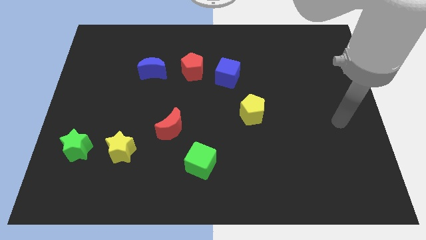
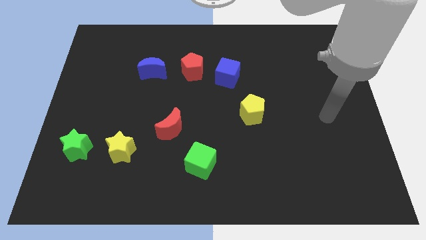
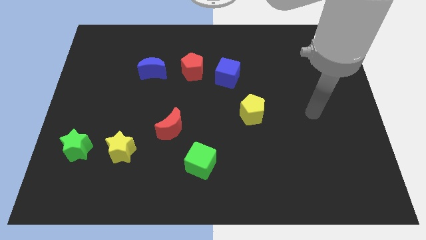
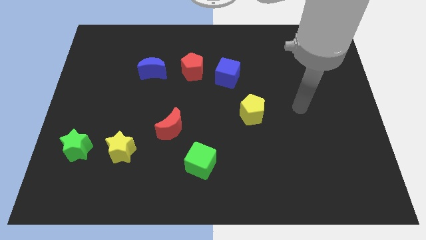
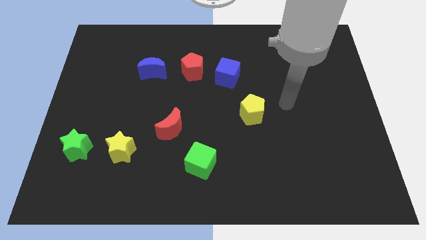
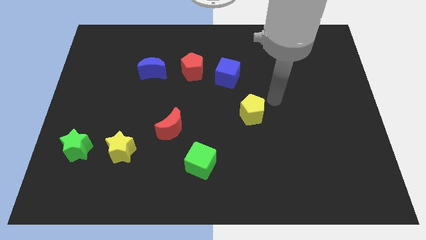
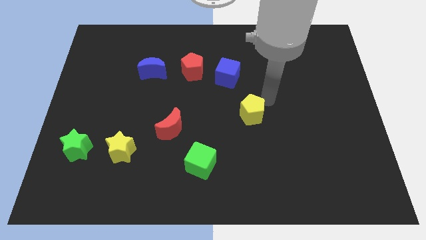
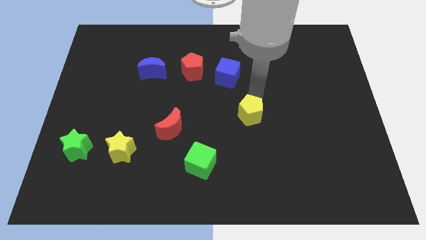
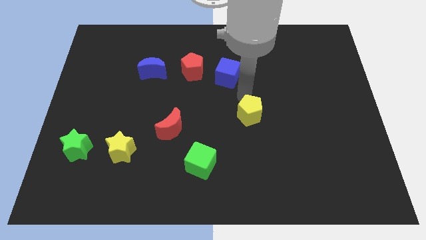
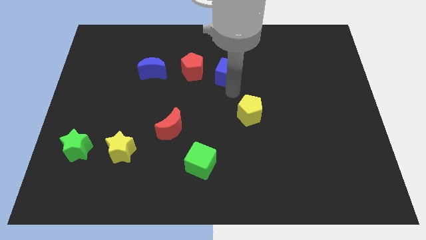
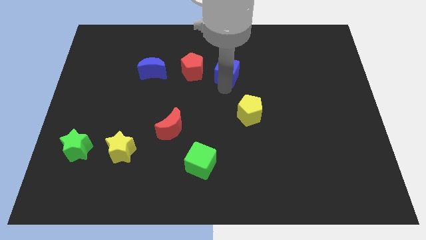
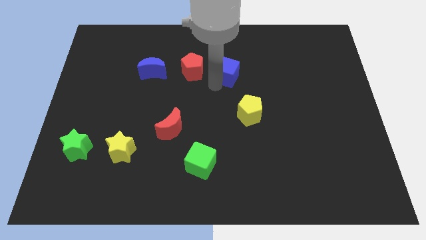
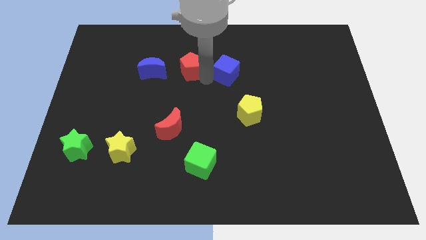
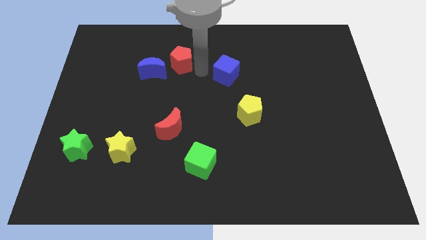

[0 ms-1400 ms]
pull the blue cube apart from the red pentagon

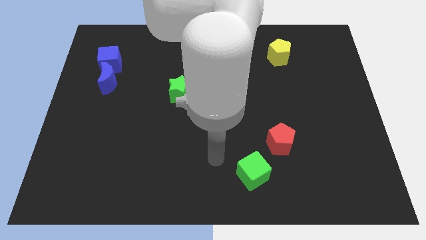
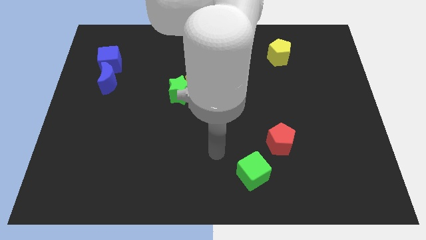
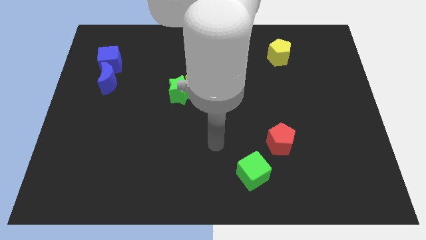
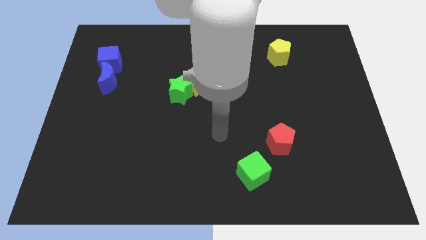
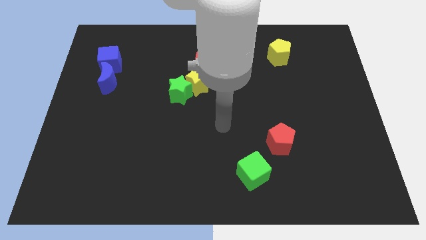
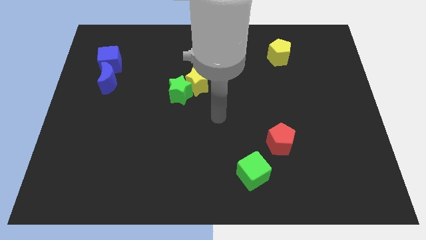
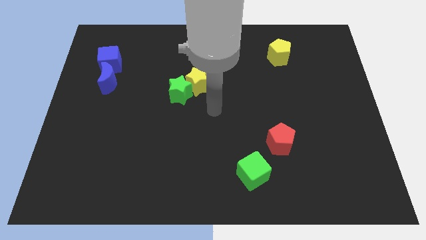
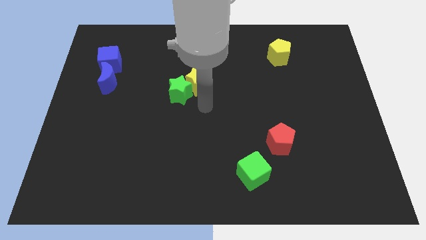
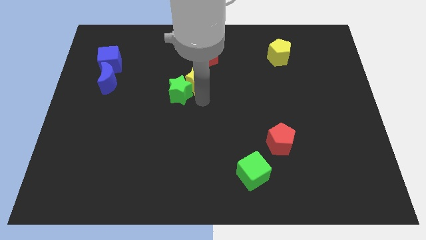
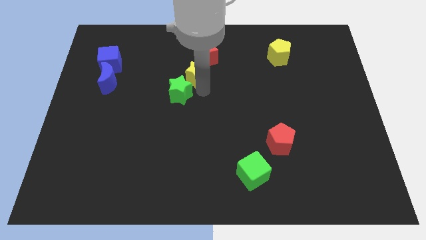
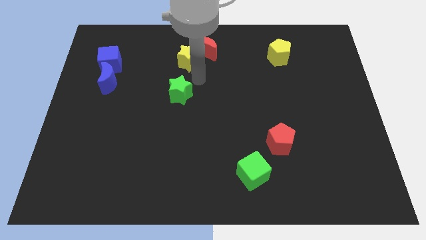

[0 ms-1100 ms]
pull the green star apart from the yellow star

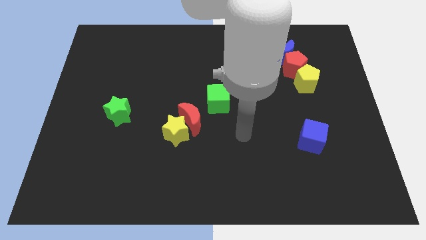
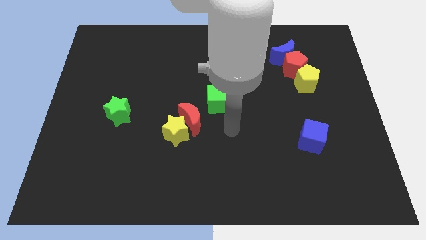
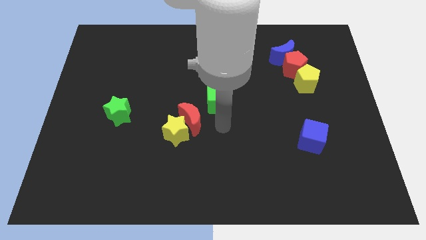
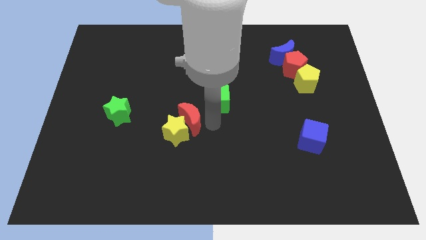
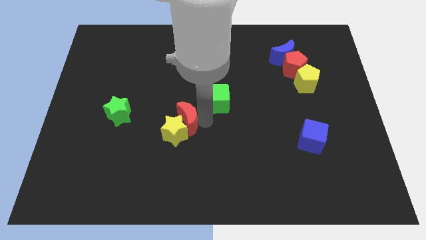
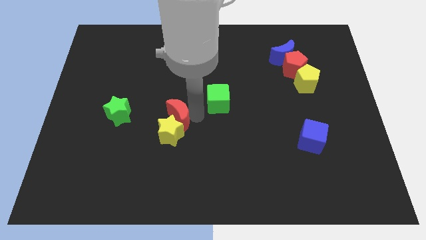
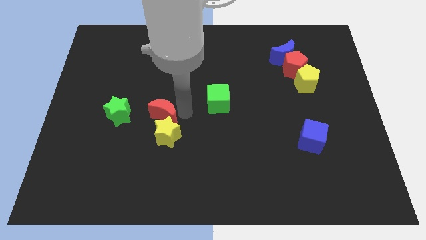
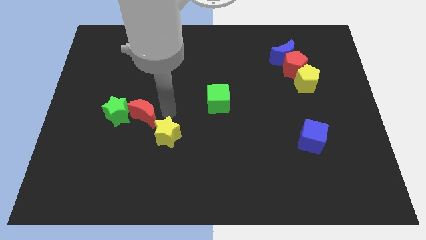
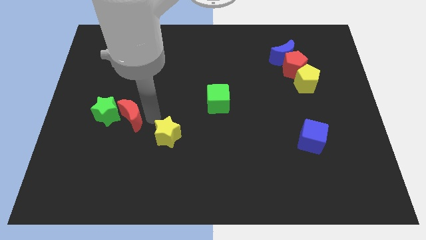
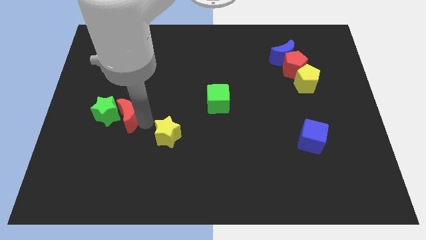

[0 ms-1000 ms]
pull the yellow star apart from the red moon

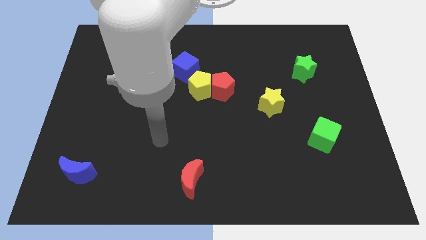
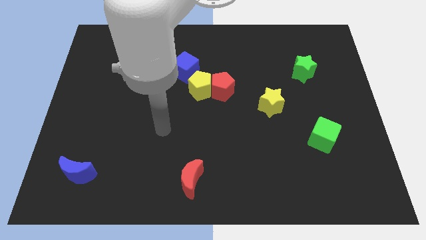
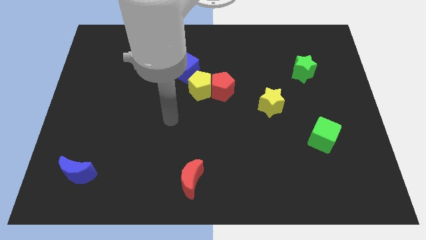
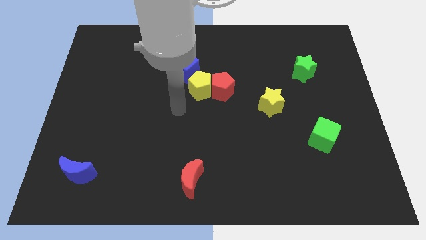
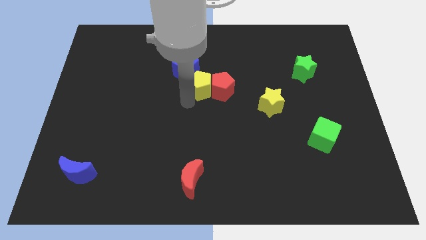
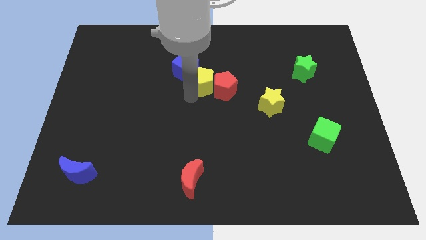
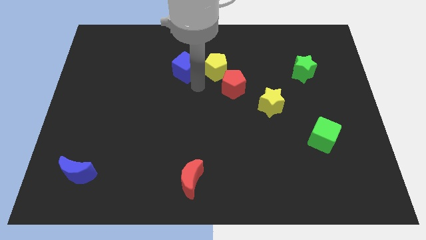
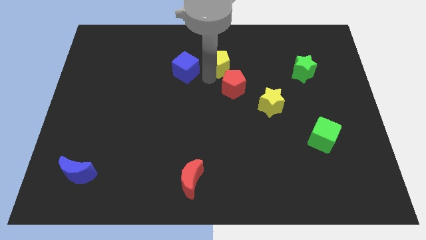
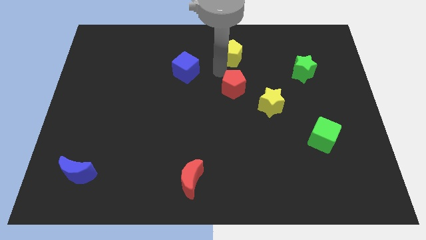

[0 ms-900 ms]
move the red pentagon away from the yellow pentagon

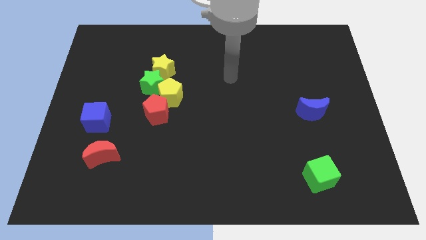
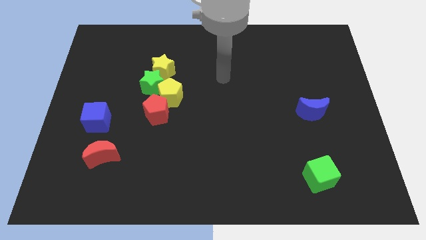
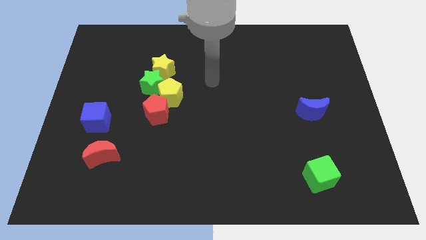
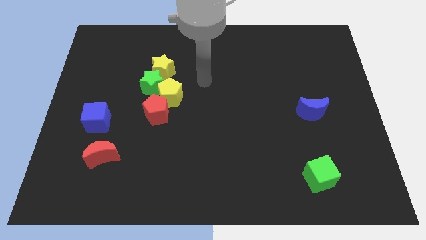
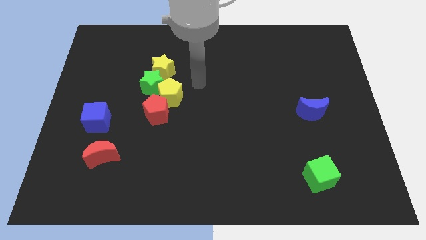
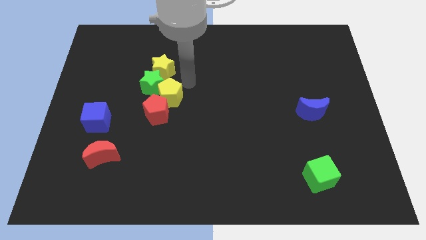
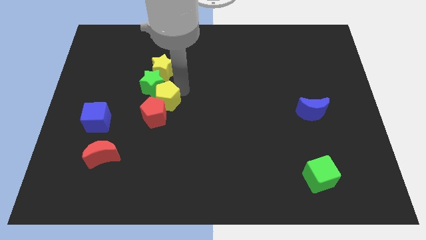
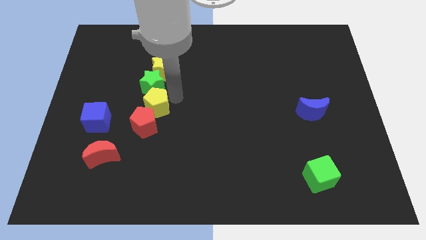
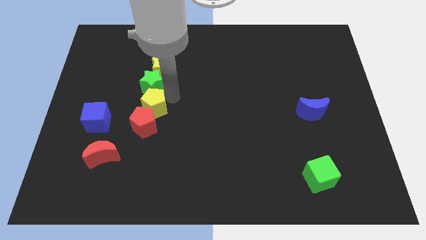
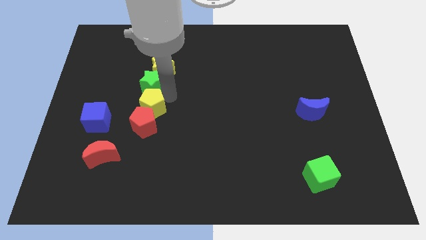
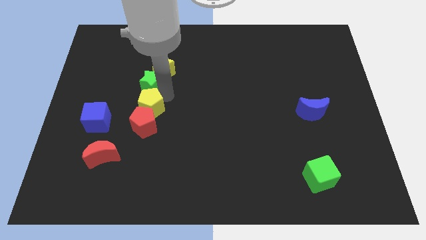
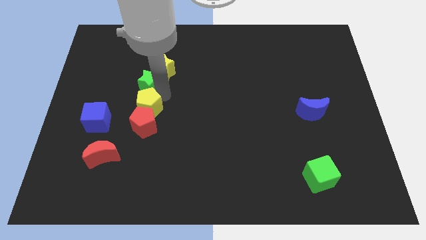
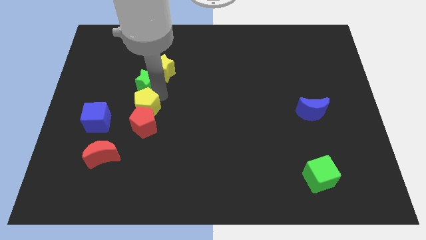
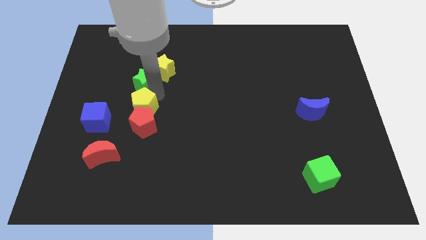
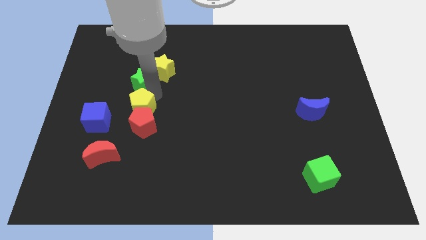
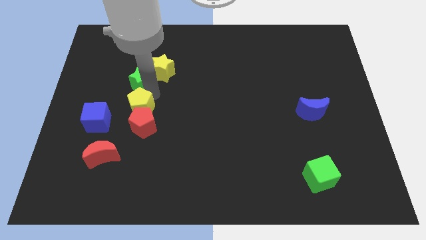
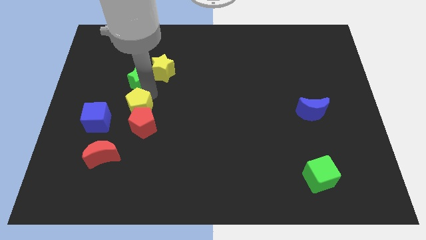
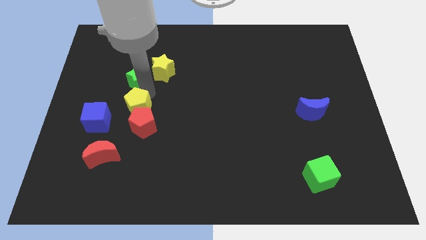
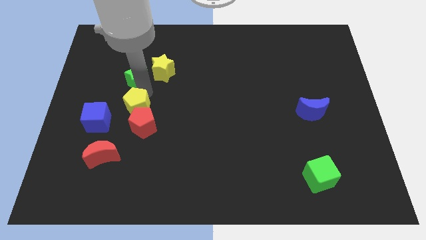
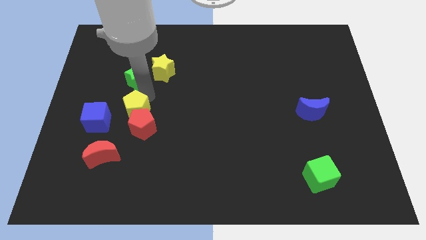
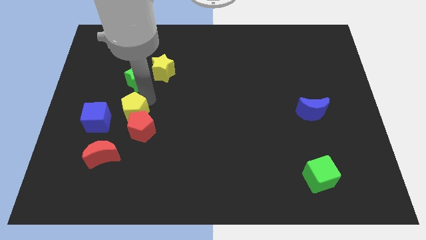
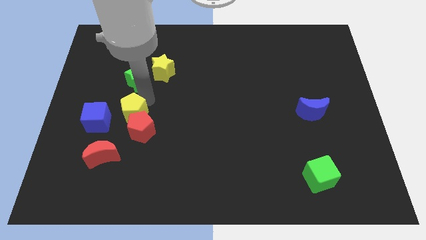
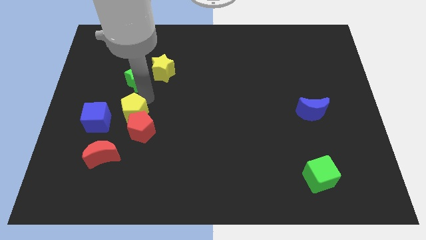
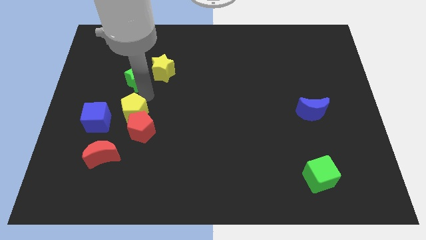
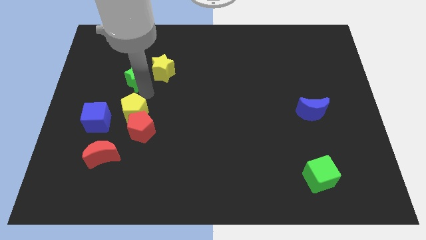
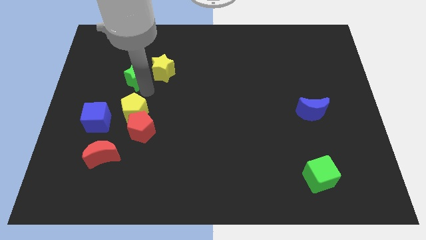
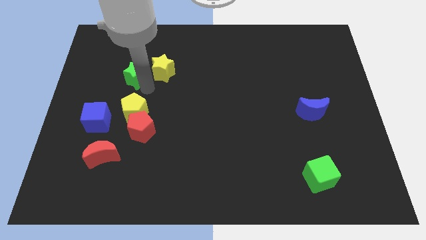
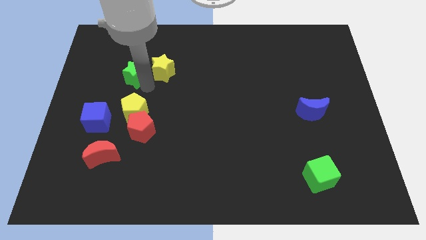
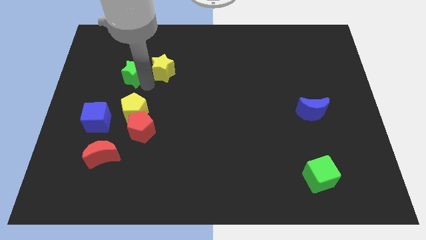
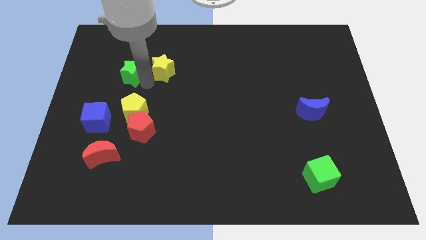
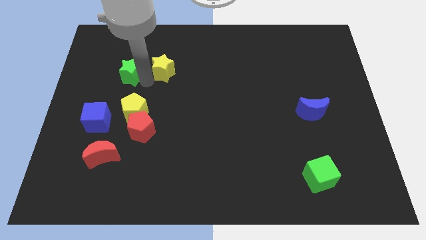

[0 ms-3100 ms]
pull the green star apart from the yellow pentagon, yellow star, and red pentagon

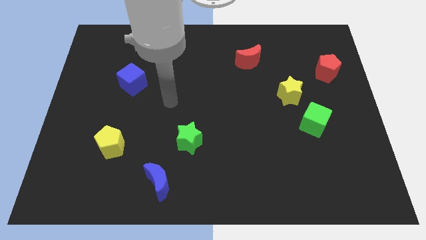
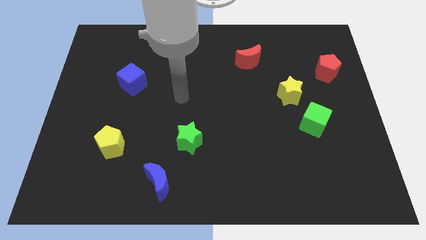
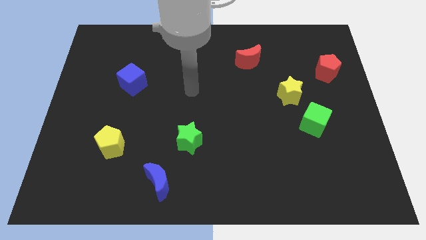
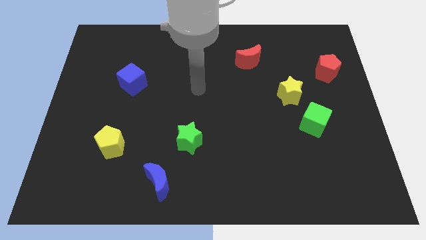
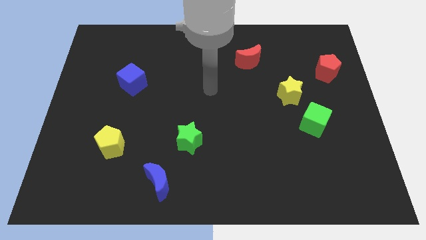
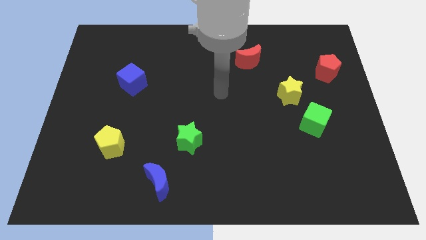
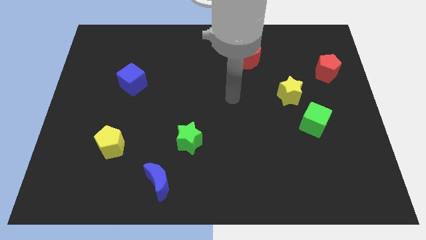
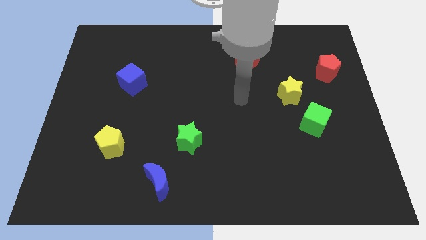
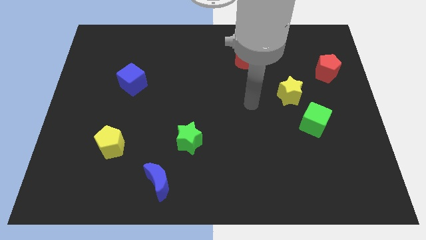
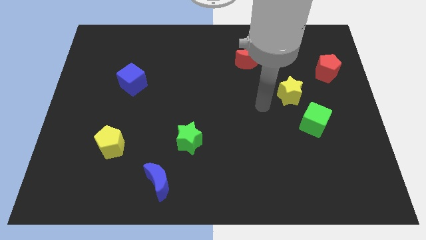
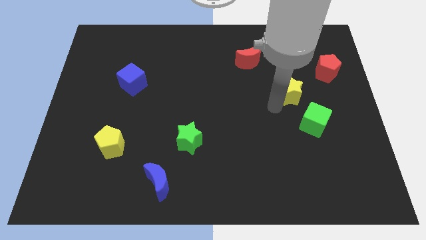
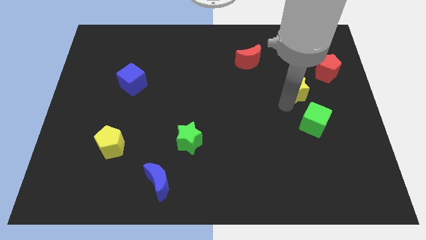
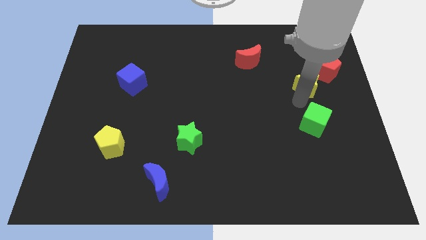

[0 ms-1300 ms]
separate the green cube from the yellow star

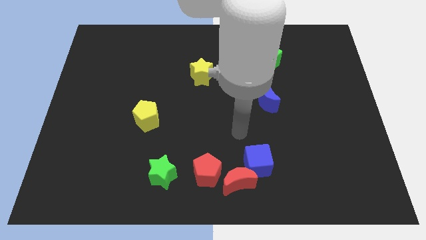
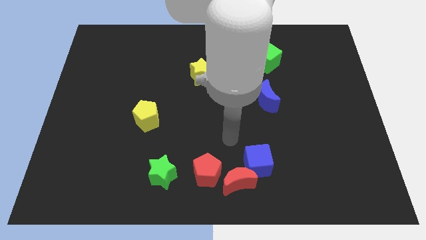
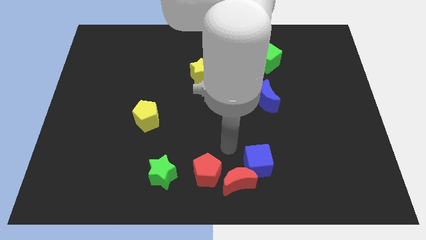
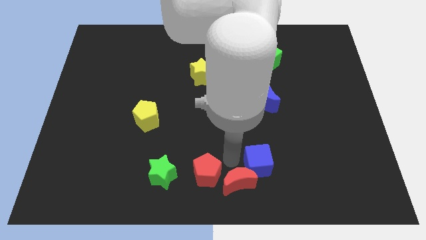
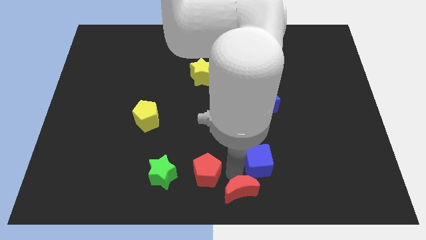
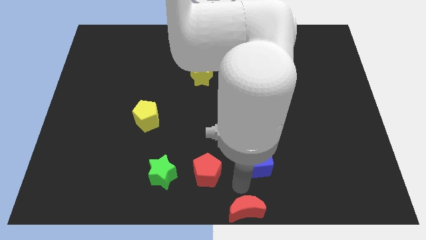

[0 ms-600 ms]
separate the blue cube from the red moon
